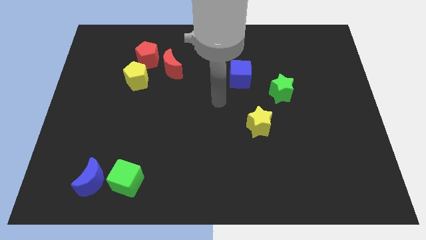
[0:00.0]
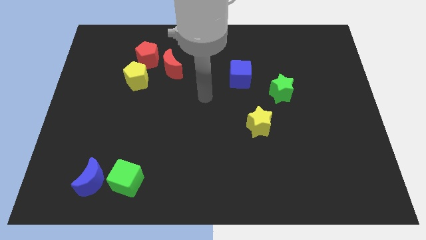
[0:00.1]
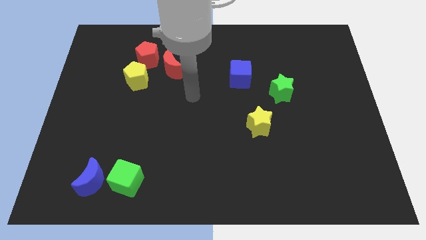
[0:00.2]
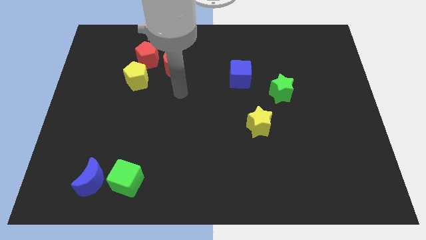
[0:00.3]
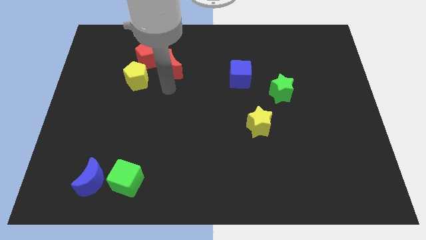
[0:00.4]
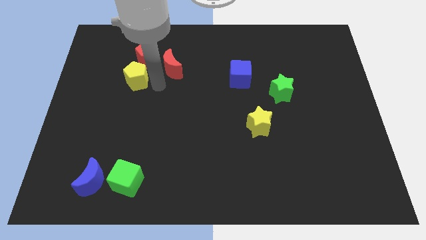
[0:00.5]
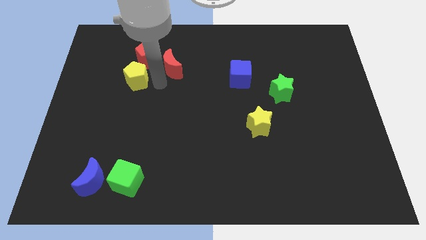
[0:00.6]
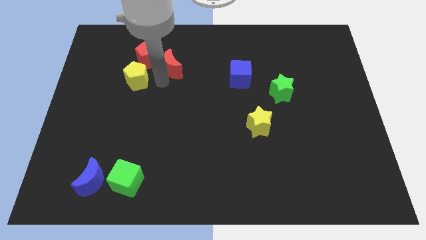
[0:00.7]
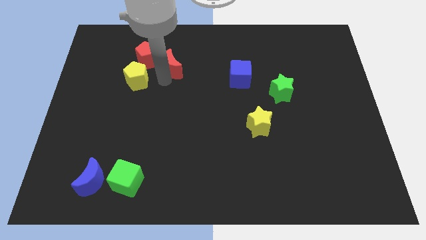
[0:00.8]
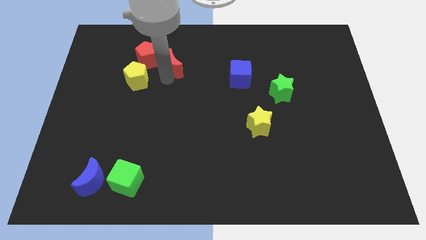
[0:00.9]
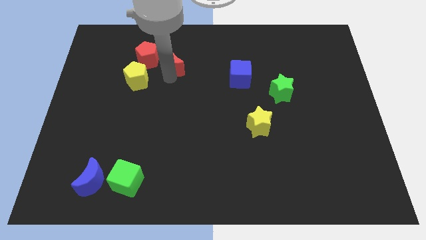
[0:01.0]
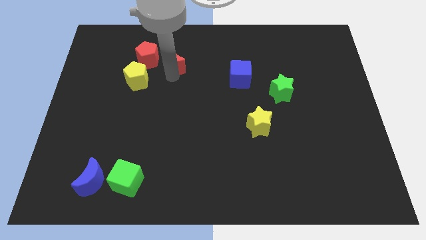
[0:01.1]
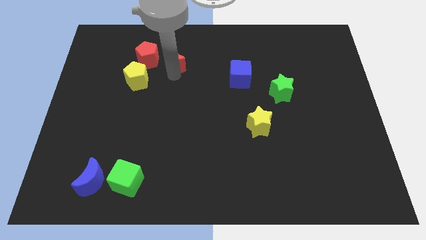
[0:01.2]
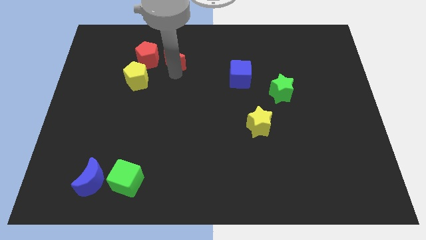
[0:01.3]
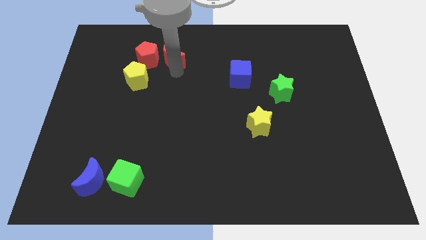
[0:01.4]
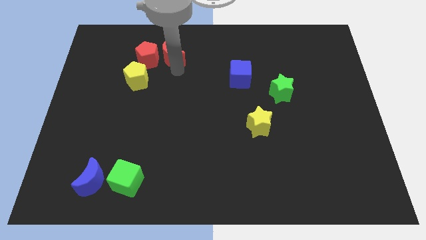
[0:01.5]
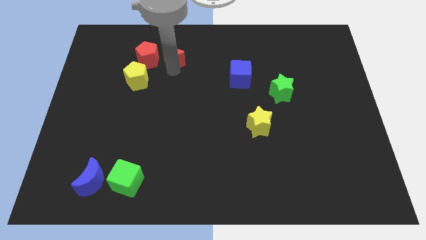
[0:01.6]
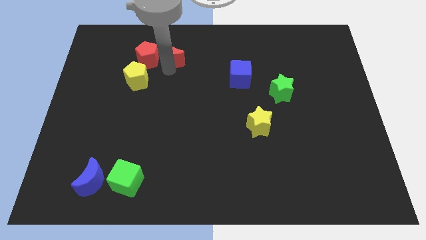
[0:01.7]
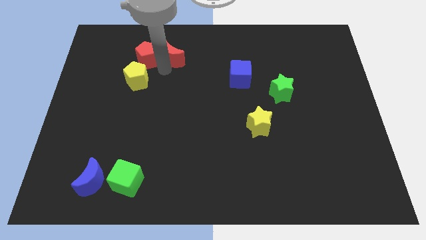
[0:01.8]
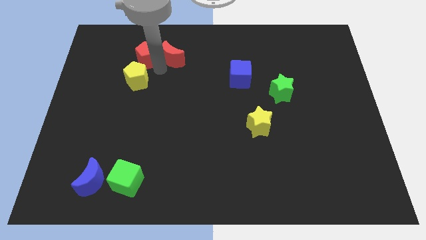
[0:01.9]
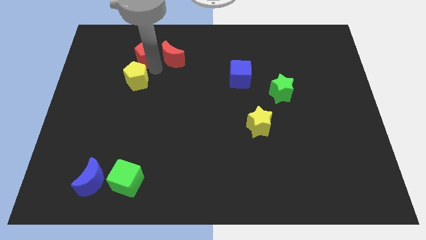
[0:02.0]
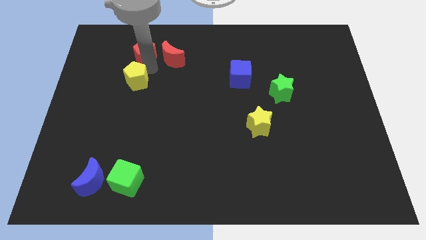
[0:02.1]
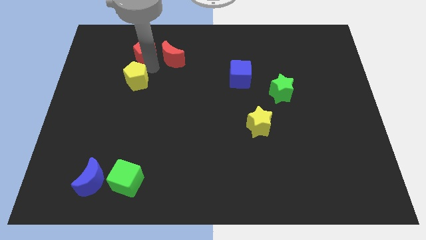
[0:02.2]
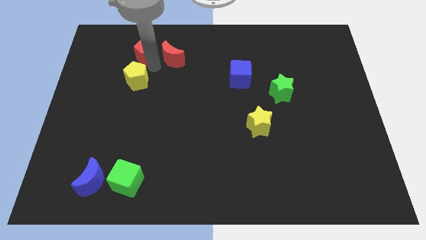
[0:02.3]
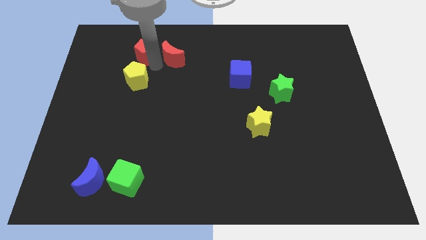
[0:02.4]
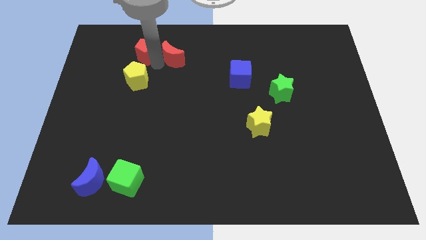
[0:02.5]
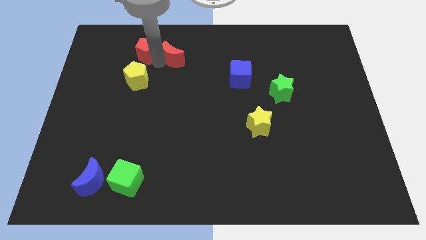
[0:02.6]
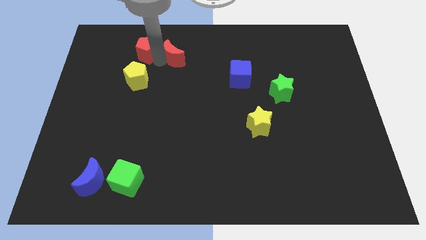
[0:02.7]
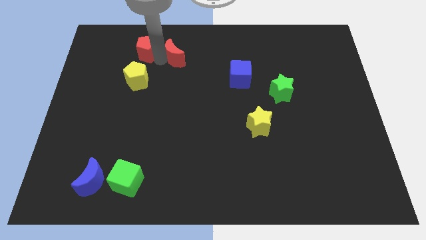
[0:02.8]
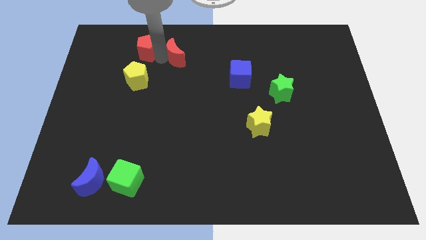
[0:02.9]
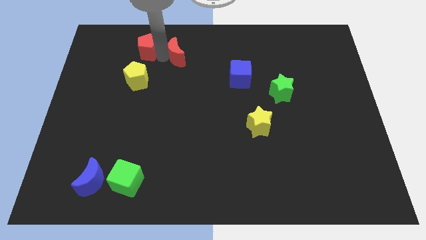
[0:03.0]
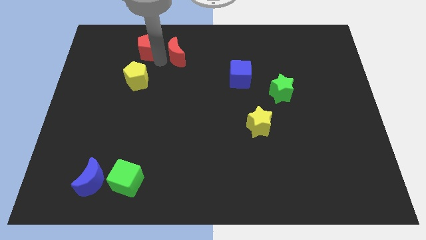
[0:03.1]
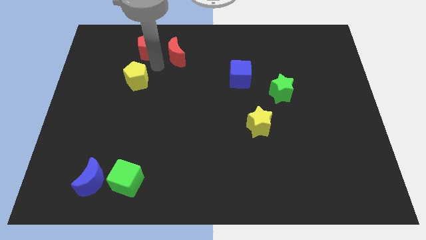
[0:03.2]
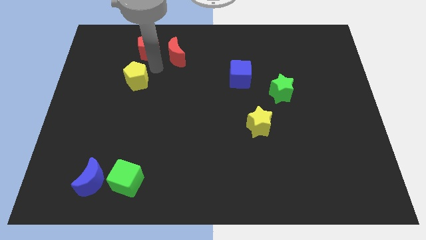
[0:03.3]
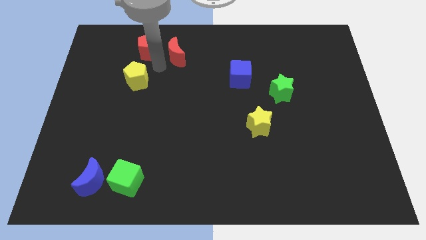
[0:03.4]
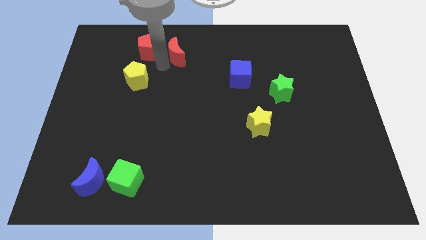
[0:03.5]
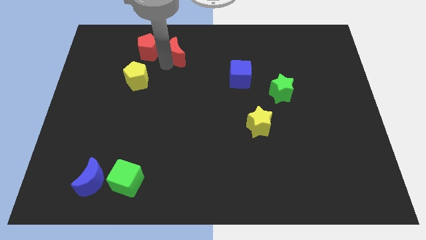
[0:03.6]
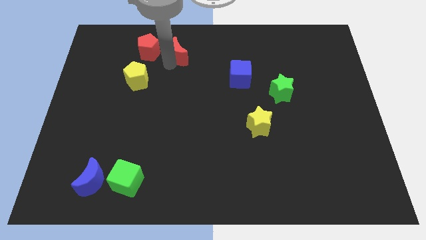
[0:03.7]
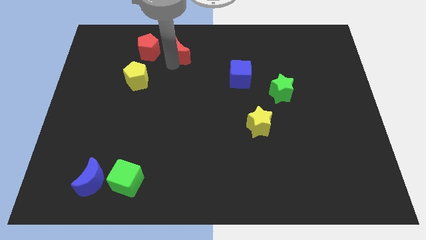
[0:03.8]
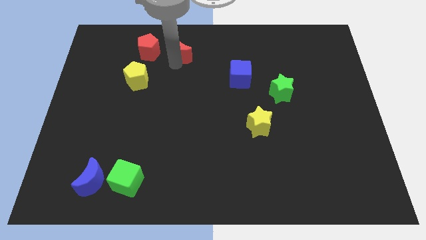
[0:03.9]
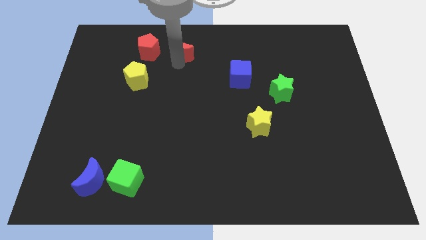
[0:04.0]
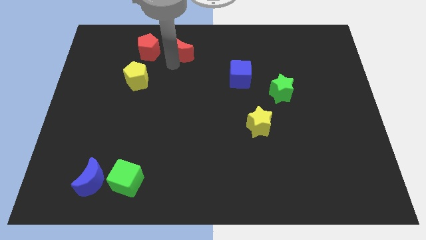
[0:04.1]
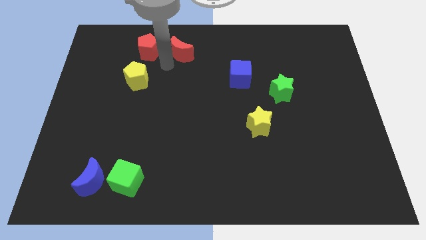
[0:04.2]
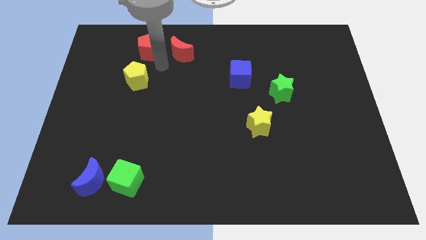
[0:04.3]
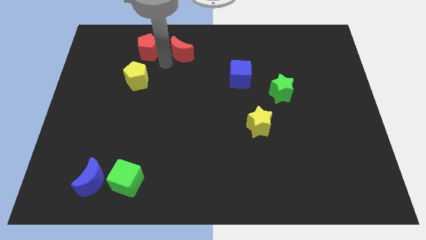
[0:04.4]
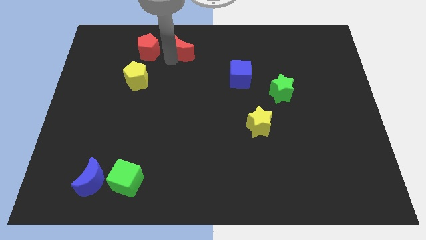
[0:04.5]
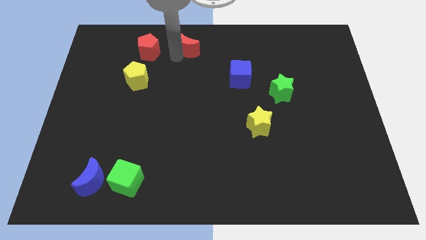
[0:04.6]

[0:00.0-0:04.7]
move the red moon to the towards your base

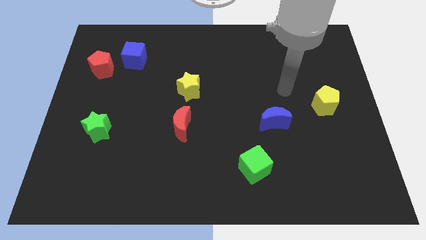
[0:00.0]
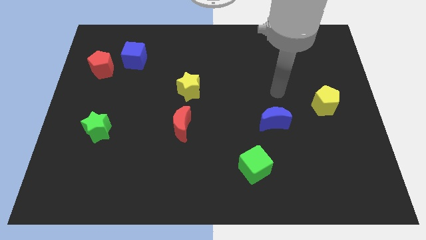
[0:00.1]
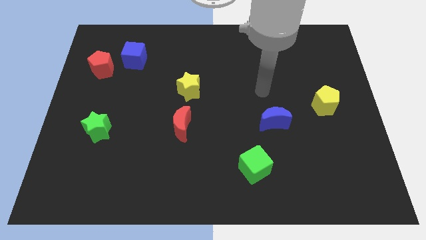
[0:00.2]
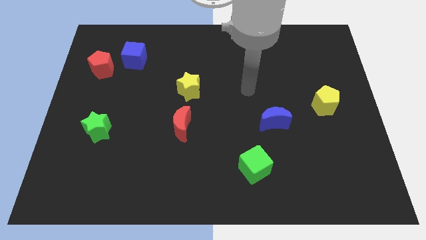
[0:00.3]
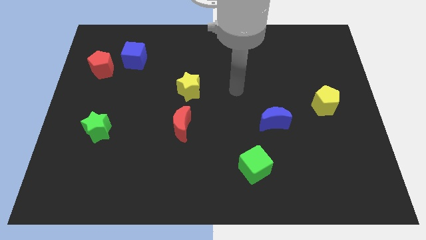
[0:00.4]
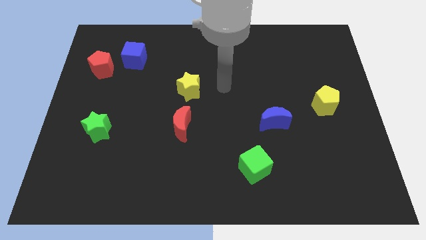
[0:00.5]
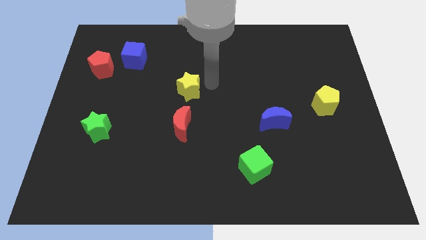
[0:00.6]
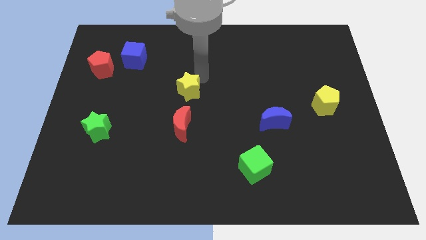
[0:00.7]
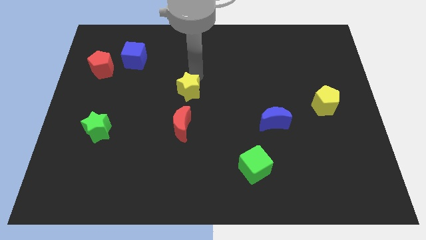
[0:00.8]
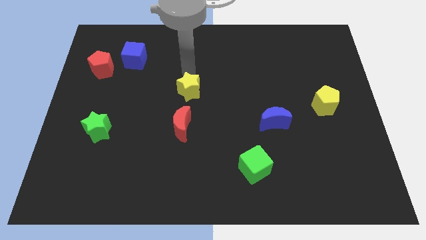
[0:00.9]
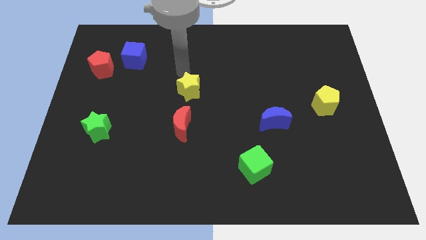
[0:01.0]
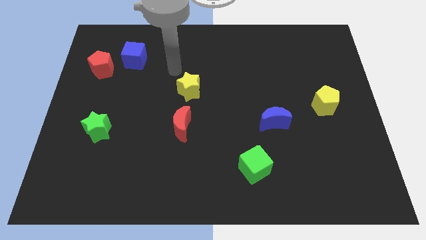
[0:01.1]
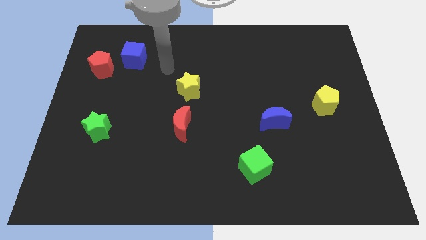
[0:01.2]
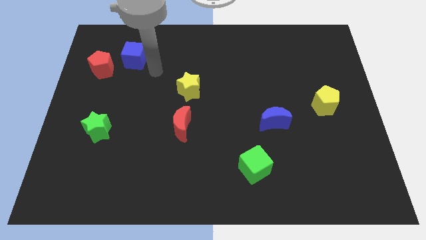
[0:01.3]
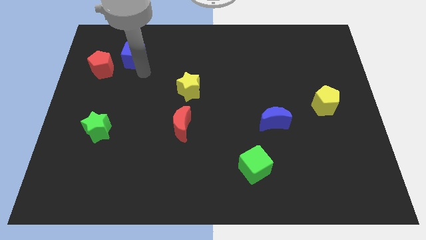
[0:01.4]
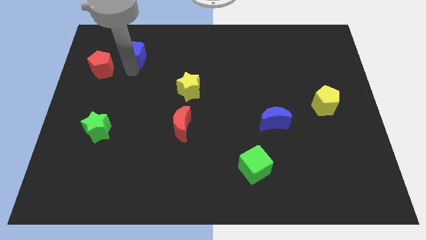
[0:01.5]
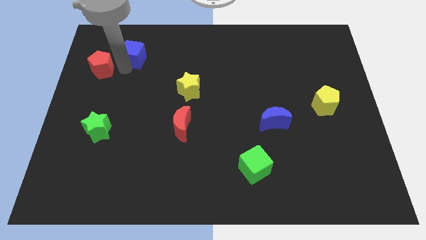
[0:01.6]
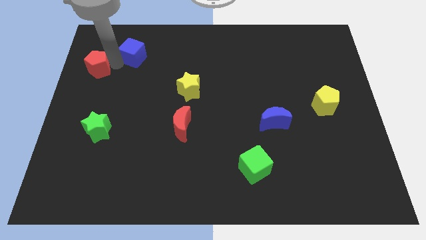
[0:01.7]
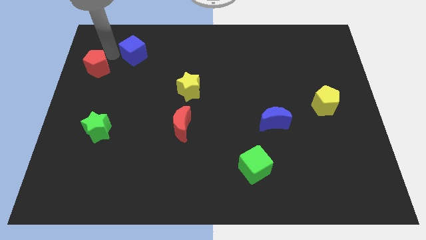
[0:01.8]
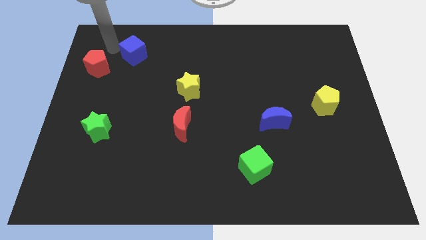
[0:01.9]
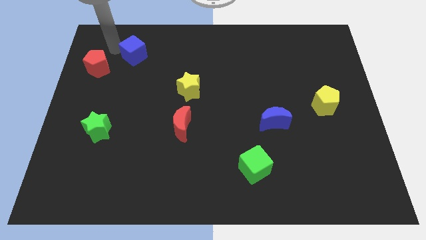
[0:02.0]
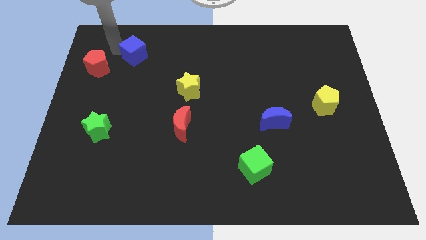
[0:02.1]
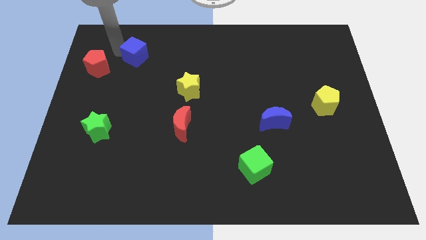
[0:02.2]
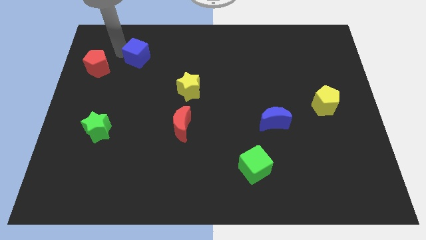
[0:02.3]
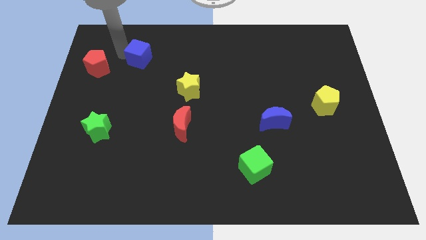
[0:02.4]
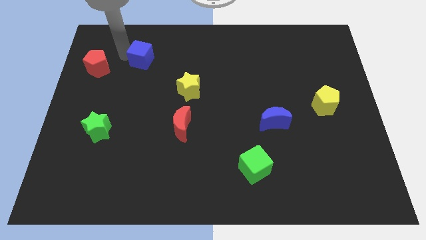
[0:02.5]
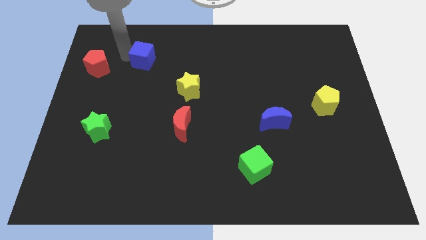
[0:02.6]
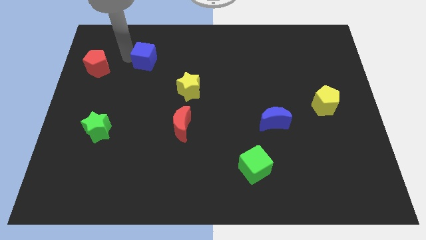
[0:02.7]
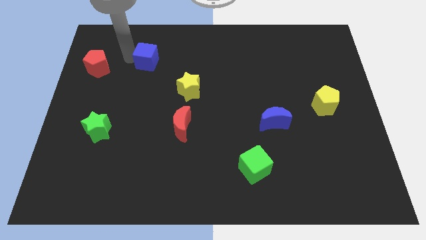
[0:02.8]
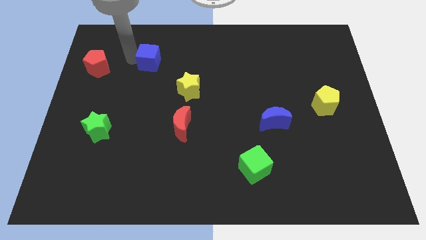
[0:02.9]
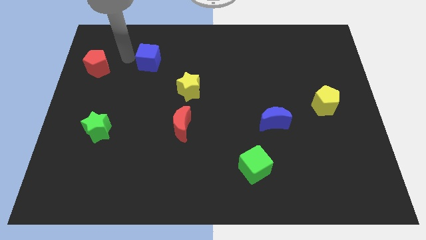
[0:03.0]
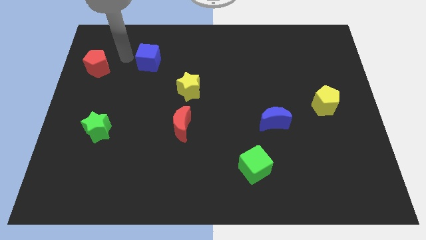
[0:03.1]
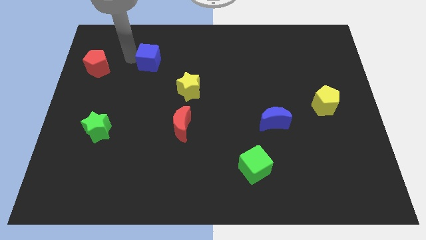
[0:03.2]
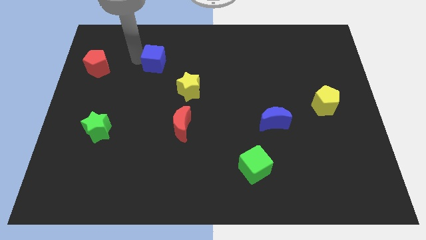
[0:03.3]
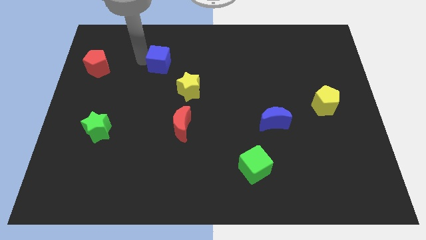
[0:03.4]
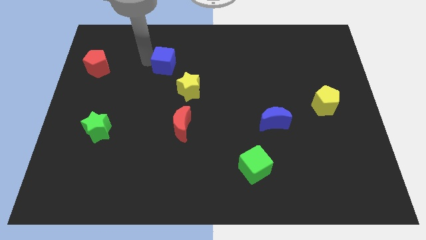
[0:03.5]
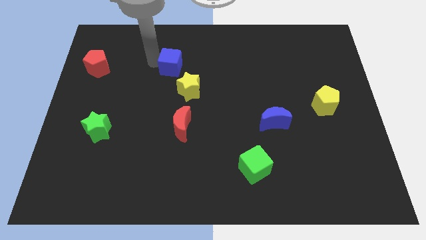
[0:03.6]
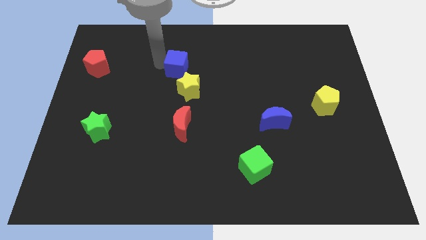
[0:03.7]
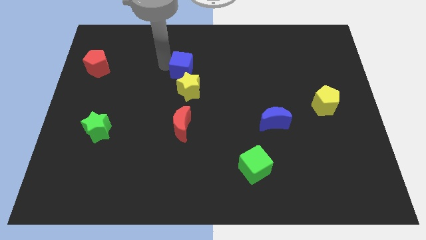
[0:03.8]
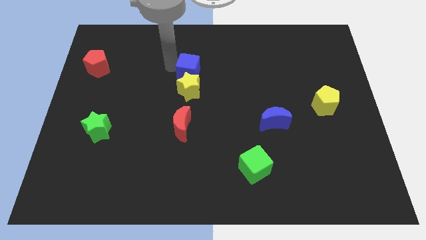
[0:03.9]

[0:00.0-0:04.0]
move the blue cube to the middle
